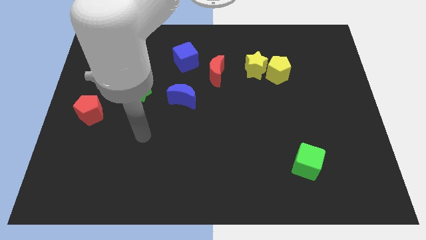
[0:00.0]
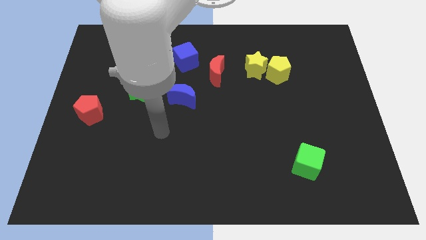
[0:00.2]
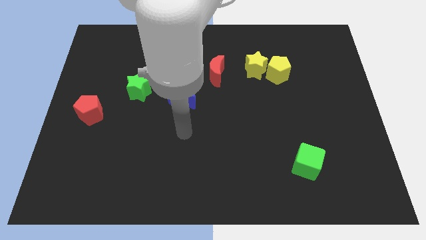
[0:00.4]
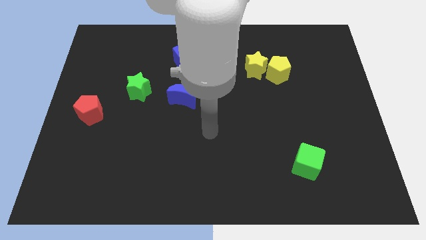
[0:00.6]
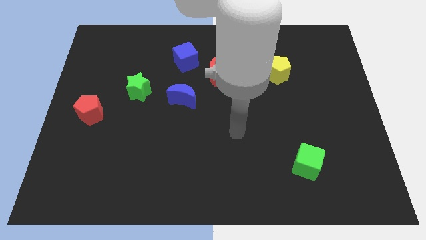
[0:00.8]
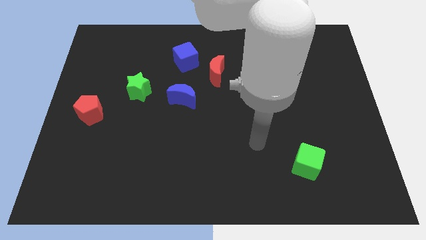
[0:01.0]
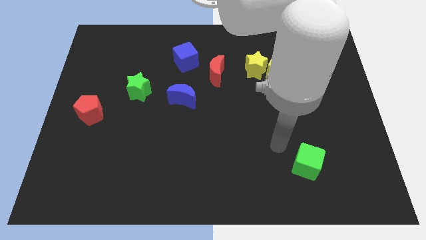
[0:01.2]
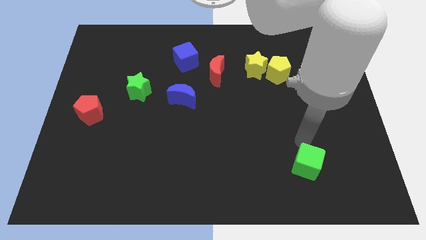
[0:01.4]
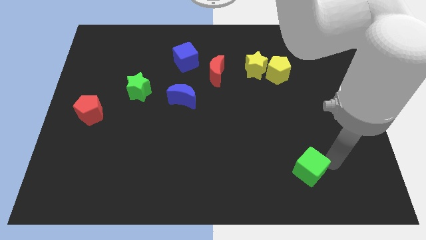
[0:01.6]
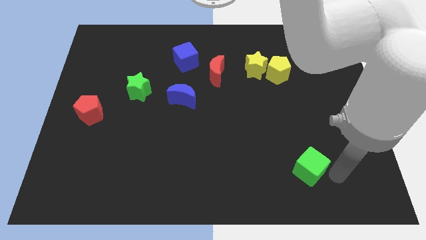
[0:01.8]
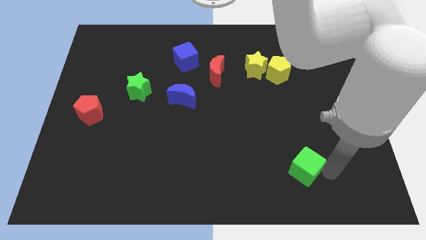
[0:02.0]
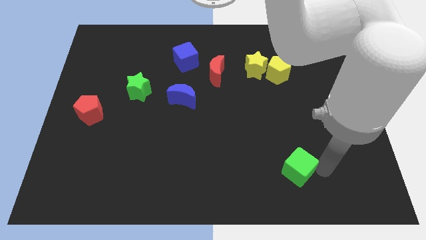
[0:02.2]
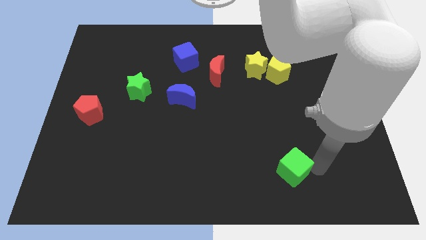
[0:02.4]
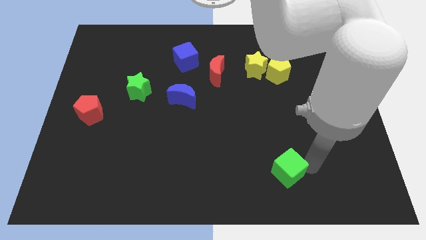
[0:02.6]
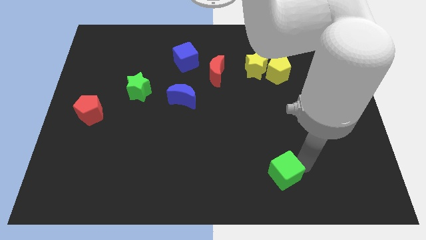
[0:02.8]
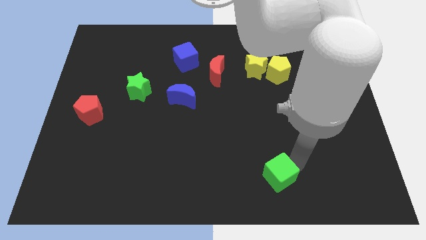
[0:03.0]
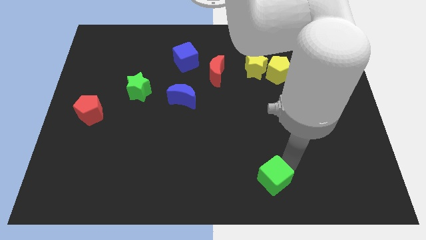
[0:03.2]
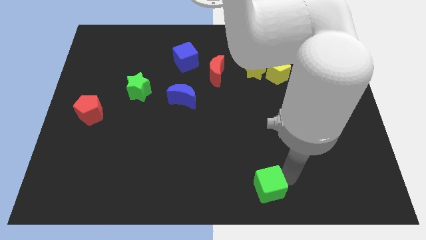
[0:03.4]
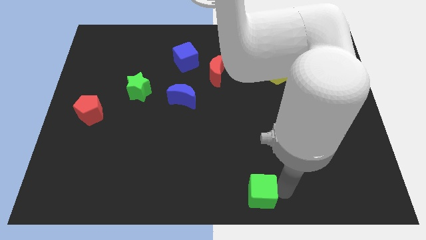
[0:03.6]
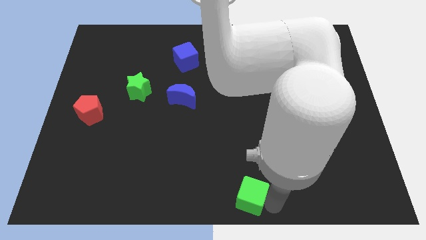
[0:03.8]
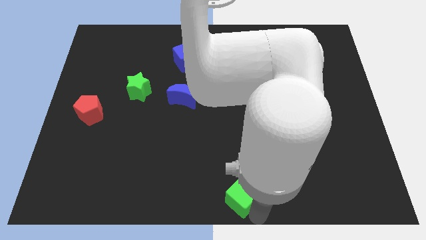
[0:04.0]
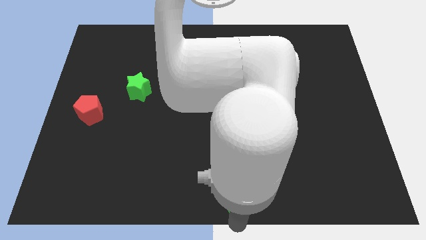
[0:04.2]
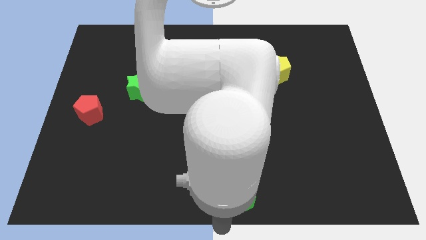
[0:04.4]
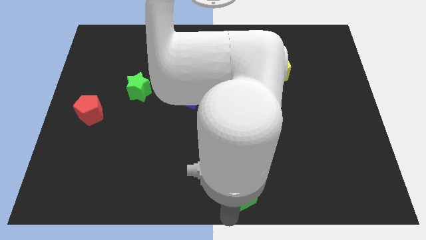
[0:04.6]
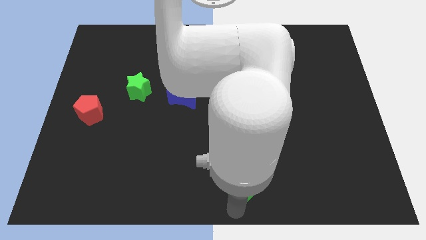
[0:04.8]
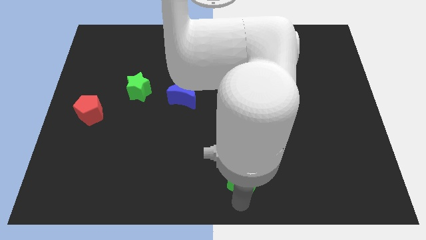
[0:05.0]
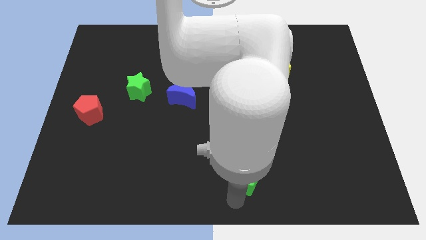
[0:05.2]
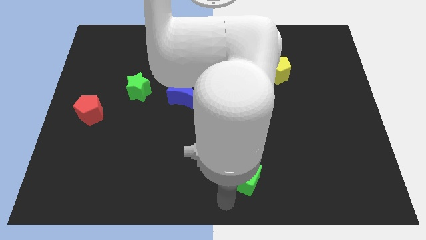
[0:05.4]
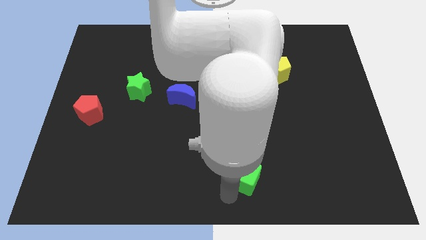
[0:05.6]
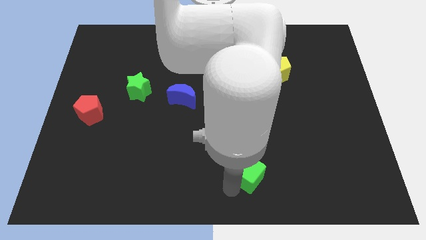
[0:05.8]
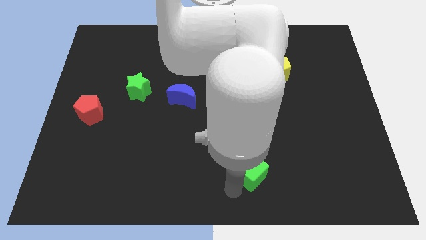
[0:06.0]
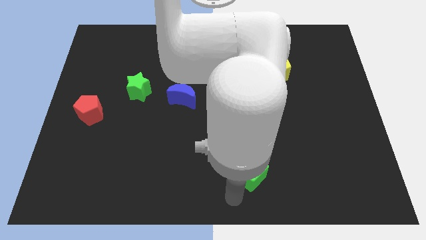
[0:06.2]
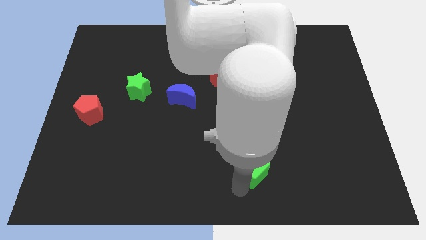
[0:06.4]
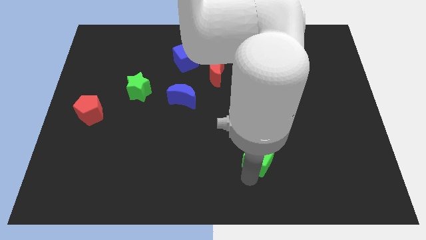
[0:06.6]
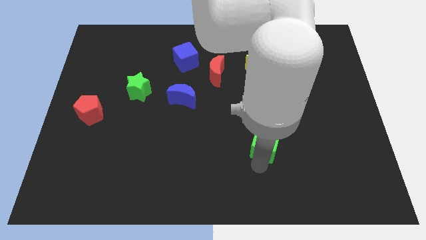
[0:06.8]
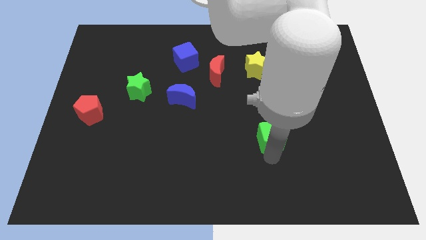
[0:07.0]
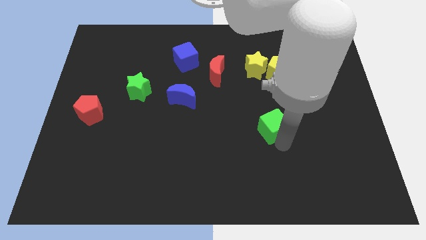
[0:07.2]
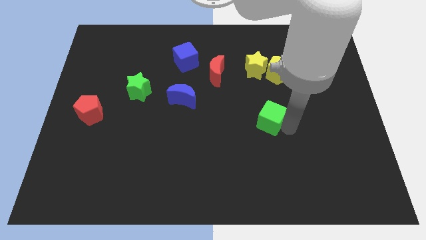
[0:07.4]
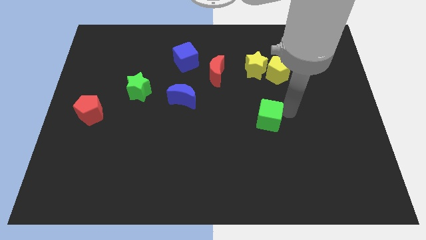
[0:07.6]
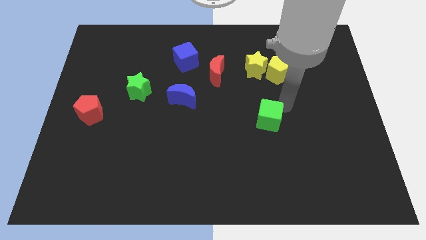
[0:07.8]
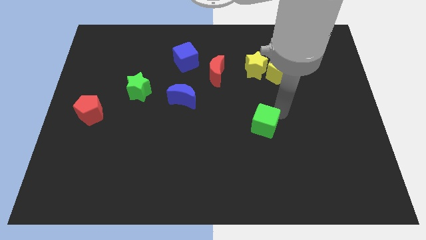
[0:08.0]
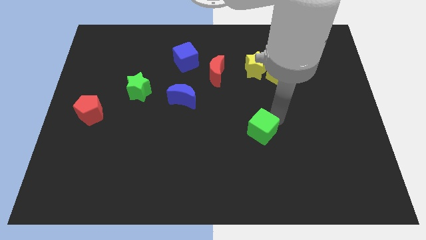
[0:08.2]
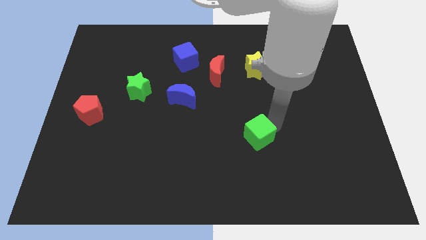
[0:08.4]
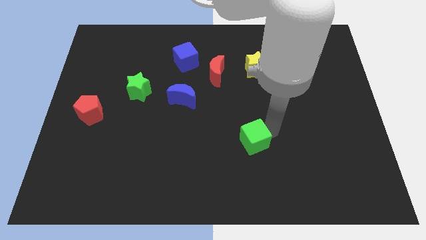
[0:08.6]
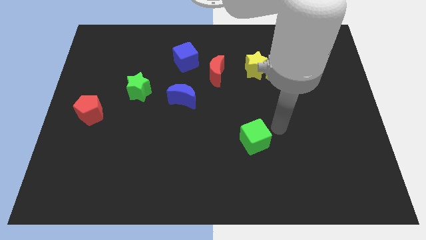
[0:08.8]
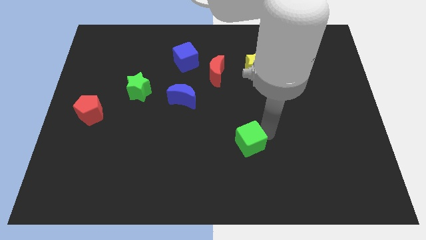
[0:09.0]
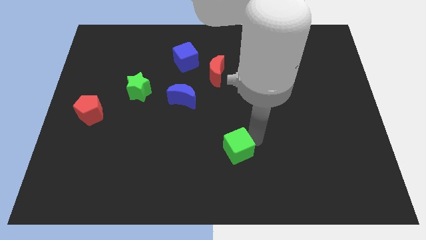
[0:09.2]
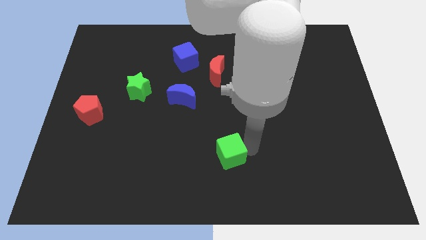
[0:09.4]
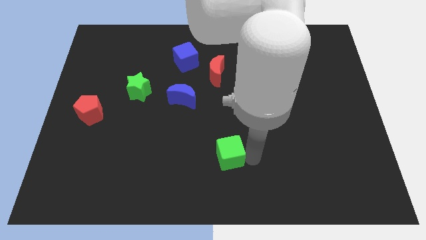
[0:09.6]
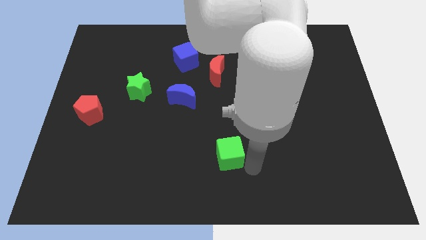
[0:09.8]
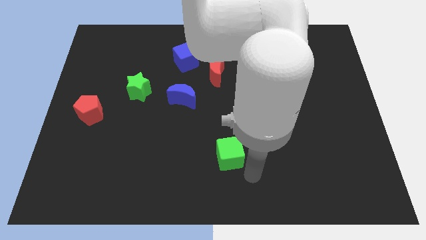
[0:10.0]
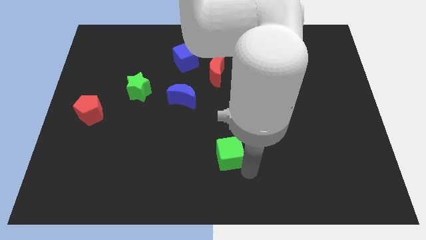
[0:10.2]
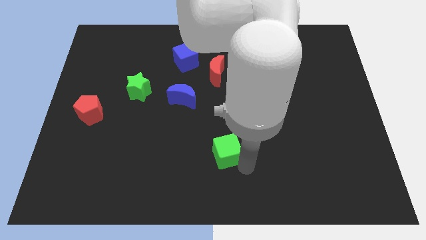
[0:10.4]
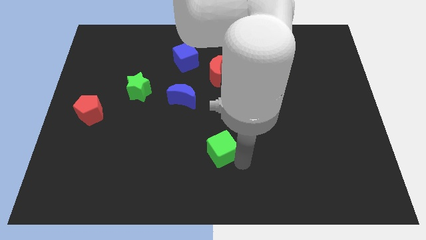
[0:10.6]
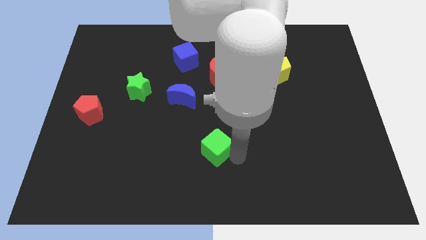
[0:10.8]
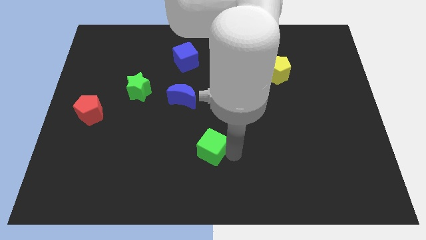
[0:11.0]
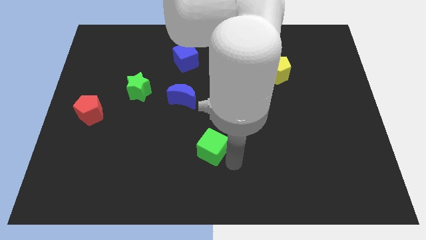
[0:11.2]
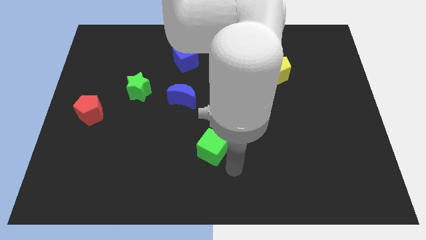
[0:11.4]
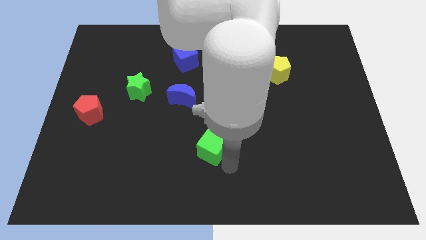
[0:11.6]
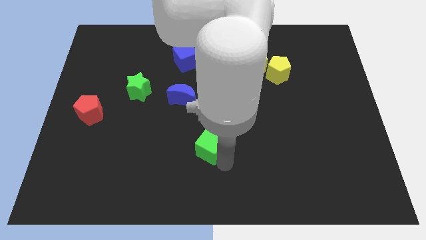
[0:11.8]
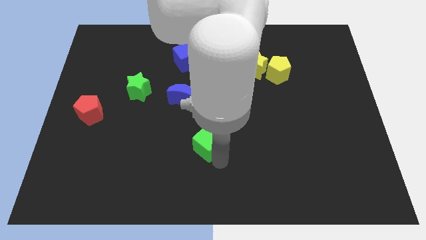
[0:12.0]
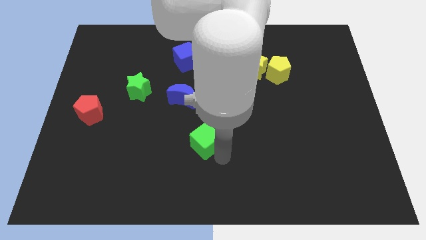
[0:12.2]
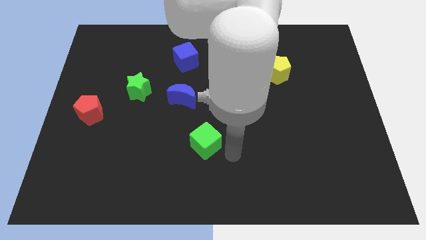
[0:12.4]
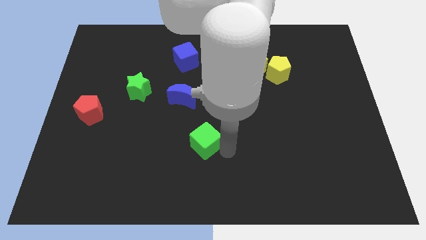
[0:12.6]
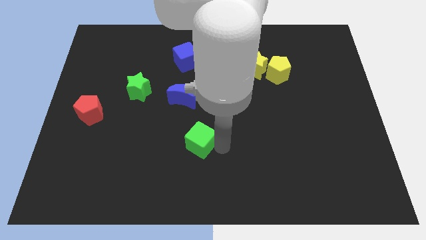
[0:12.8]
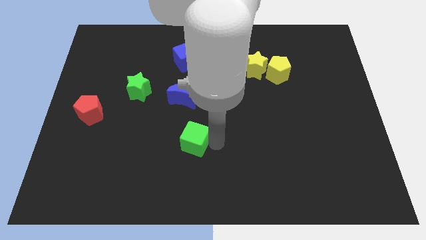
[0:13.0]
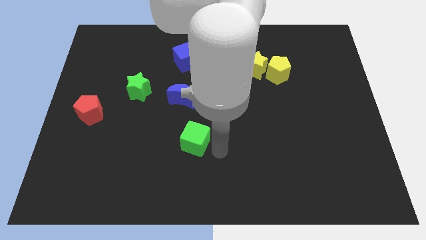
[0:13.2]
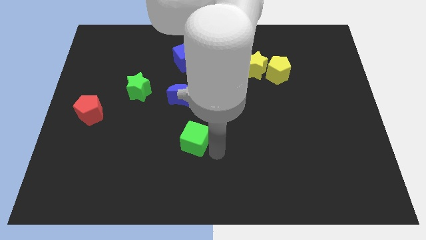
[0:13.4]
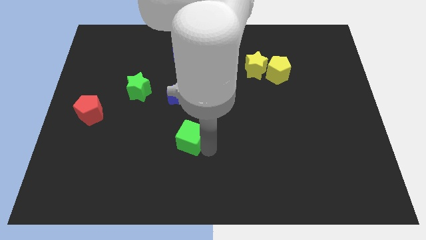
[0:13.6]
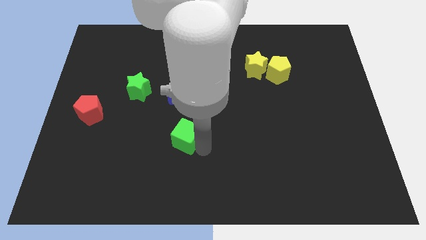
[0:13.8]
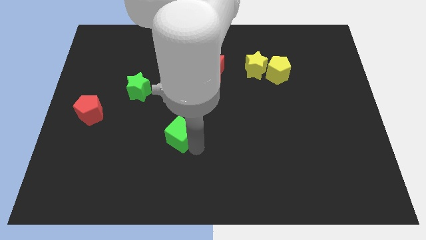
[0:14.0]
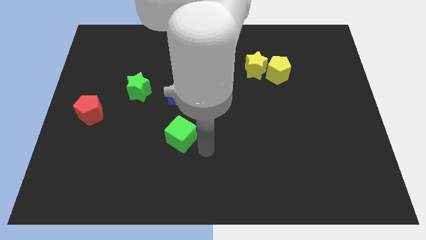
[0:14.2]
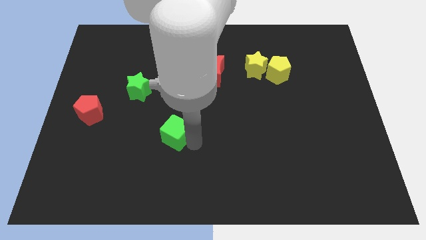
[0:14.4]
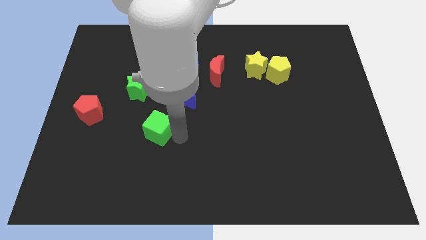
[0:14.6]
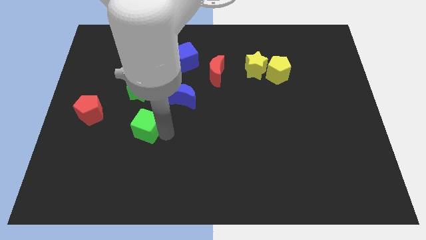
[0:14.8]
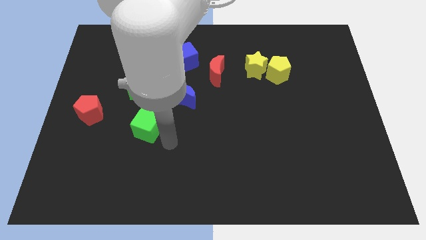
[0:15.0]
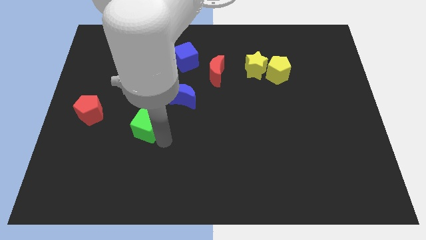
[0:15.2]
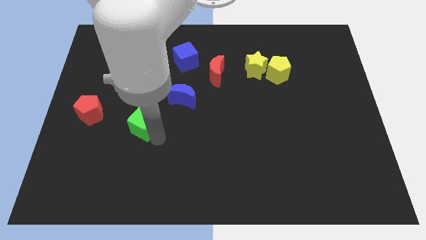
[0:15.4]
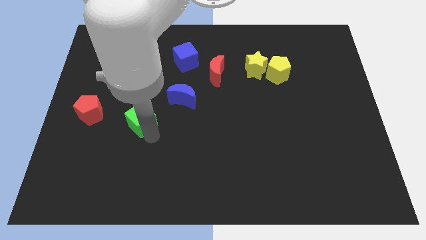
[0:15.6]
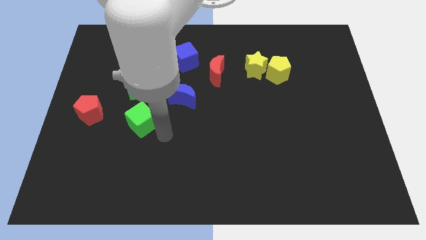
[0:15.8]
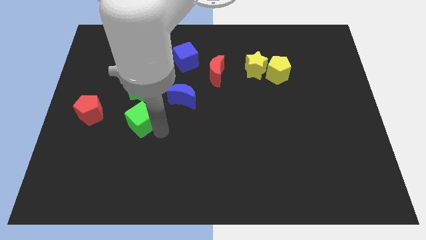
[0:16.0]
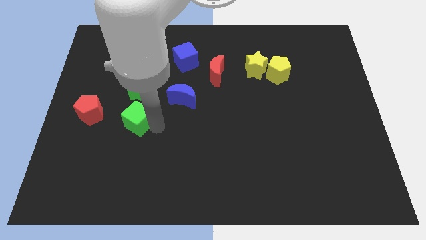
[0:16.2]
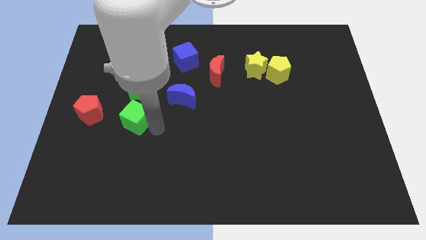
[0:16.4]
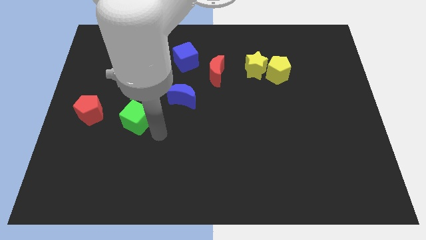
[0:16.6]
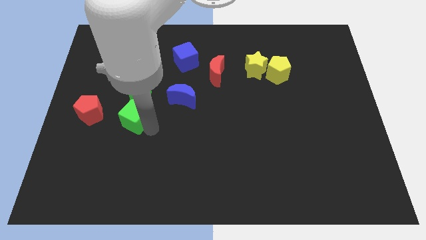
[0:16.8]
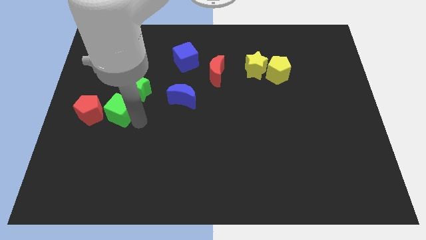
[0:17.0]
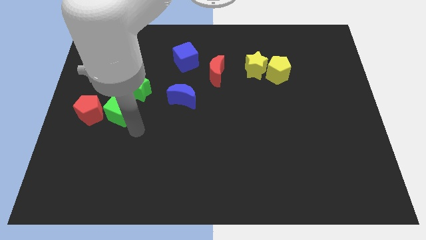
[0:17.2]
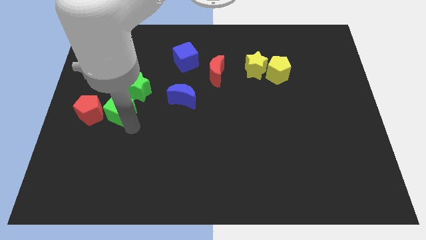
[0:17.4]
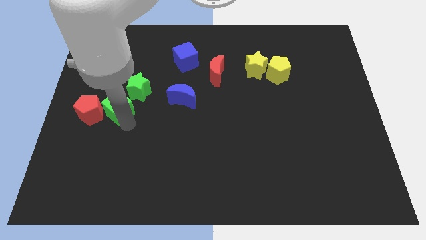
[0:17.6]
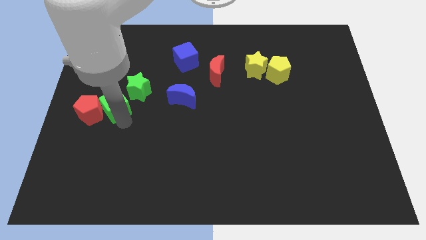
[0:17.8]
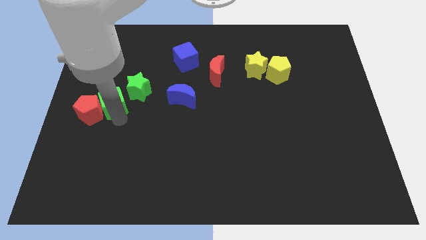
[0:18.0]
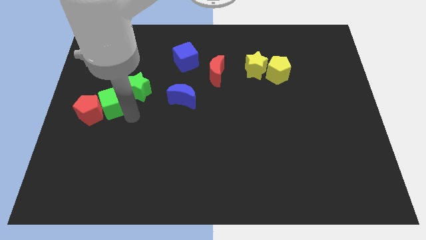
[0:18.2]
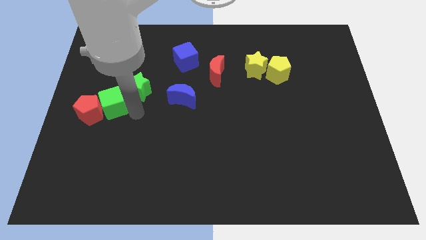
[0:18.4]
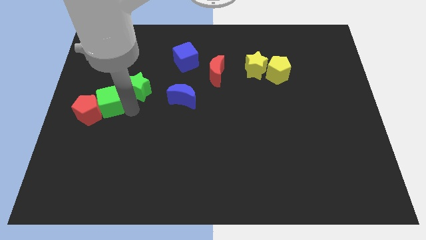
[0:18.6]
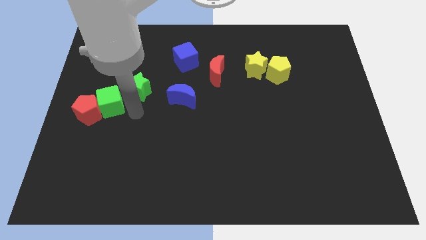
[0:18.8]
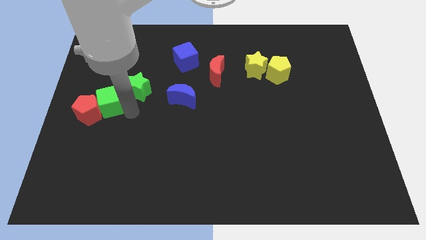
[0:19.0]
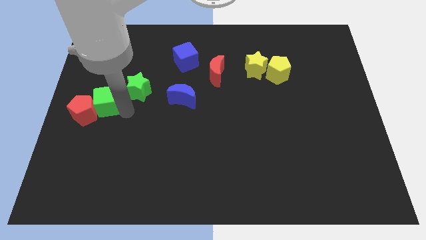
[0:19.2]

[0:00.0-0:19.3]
slide the green cube to the center left
